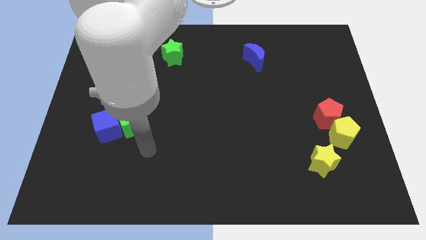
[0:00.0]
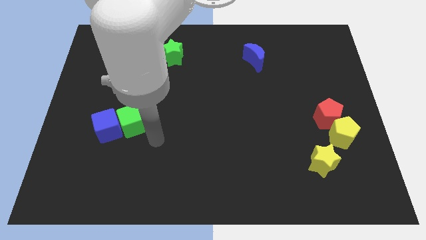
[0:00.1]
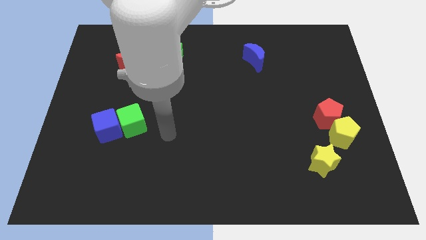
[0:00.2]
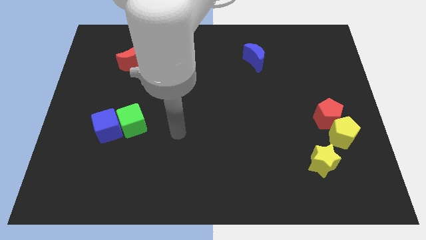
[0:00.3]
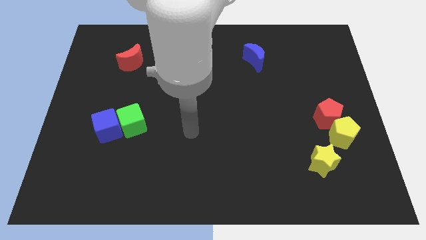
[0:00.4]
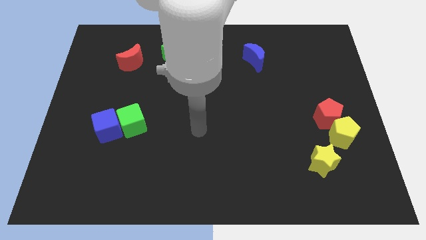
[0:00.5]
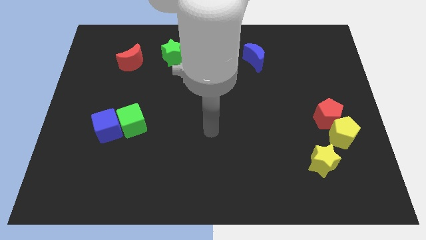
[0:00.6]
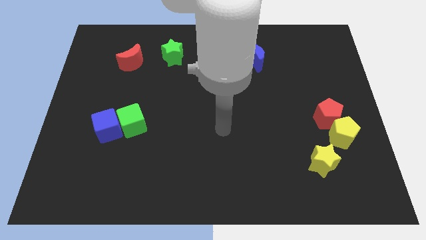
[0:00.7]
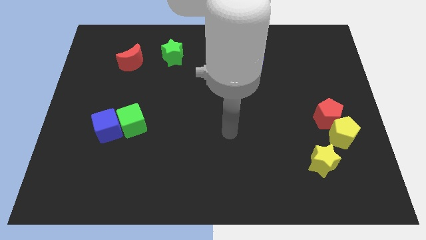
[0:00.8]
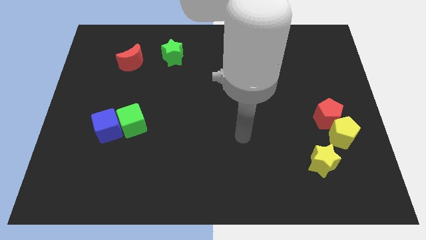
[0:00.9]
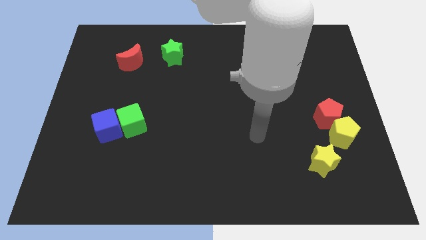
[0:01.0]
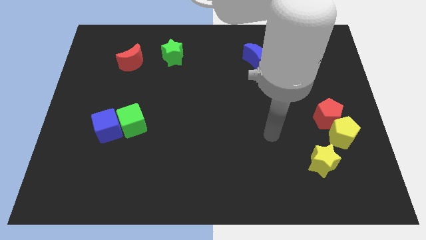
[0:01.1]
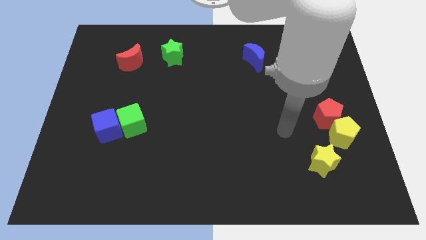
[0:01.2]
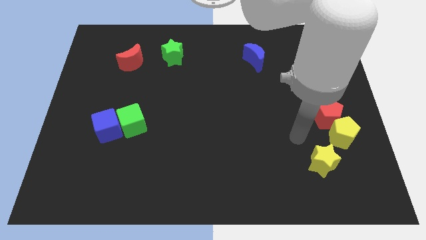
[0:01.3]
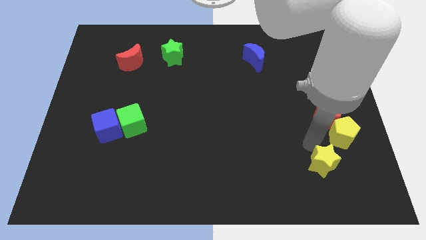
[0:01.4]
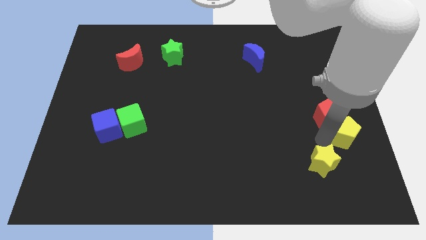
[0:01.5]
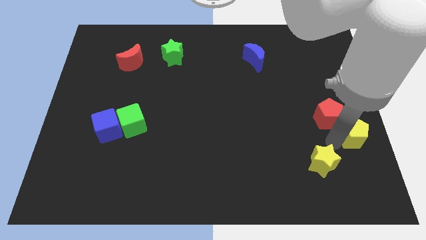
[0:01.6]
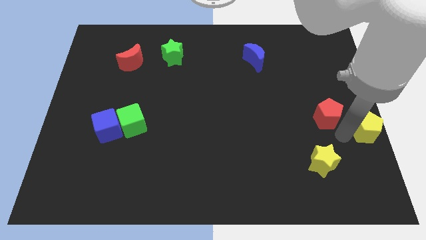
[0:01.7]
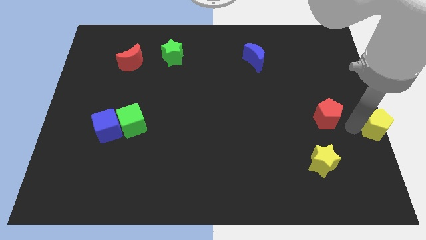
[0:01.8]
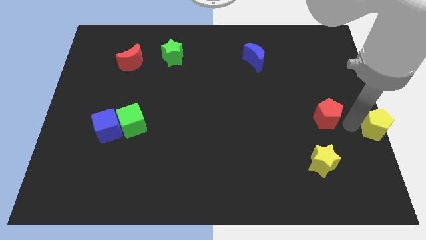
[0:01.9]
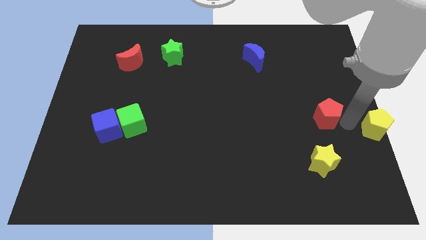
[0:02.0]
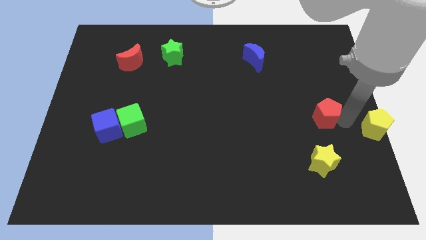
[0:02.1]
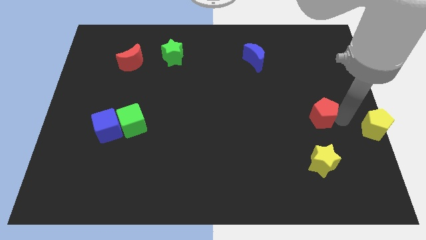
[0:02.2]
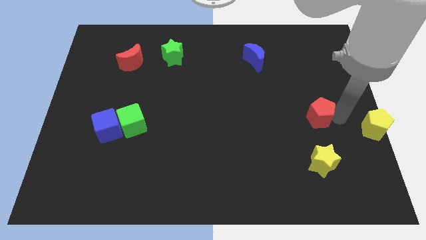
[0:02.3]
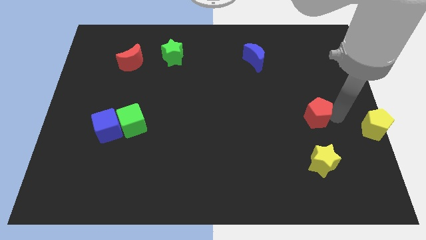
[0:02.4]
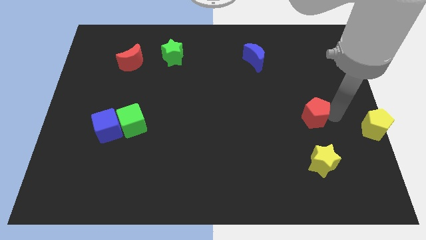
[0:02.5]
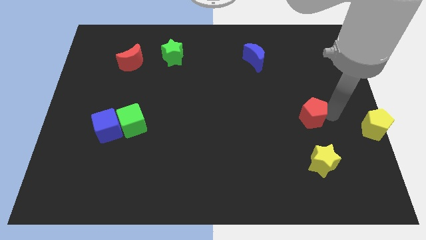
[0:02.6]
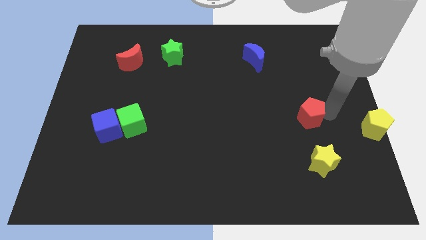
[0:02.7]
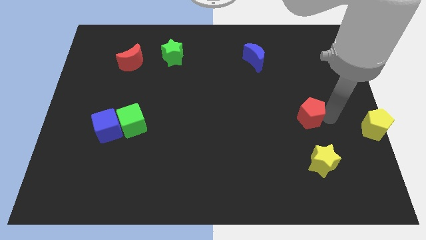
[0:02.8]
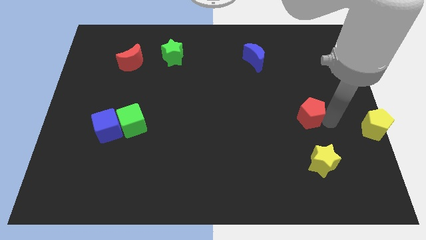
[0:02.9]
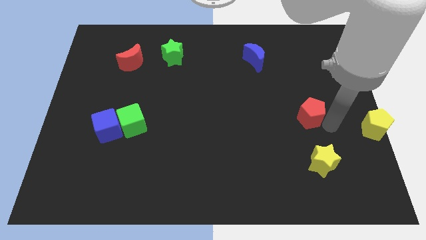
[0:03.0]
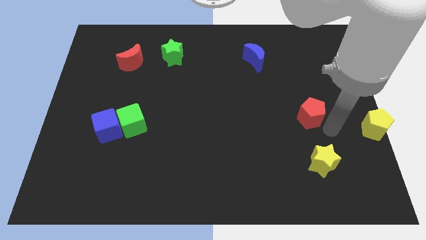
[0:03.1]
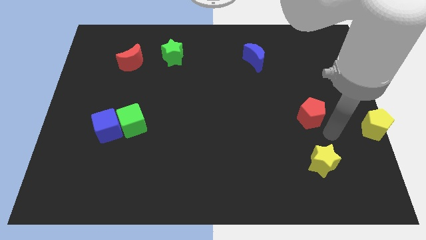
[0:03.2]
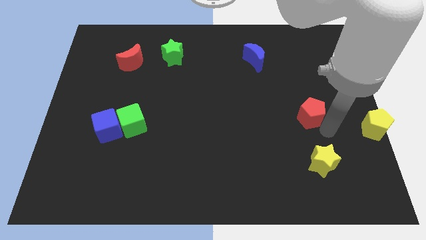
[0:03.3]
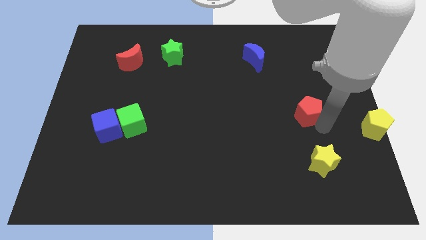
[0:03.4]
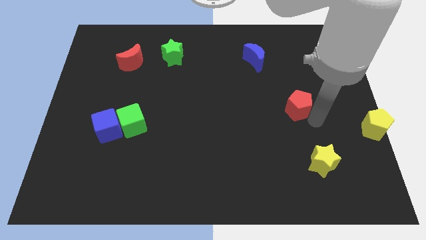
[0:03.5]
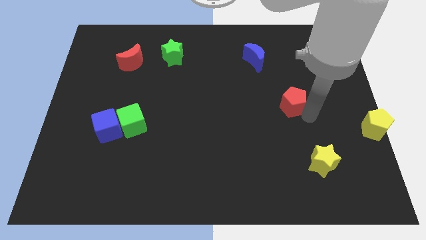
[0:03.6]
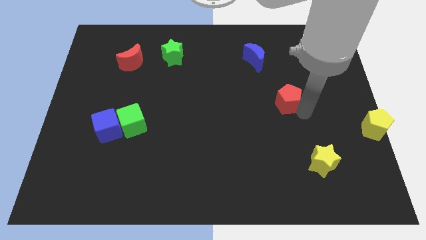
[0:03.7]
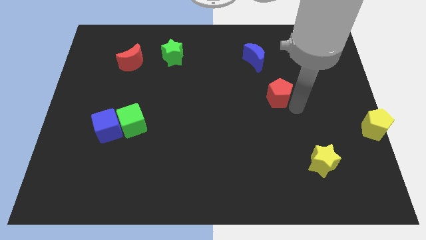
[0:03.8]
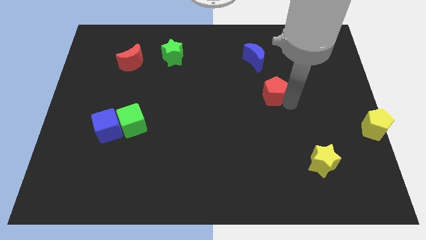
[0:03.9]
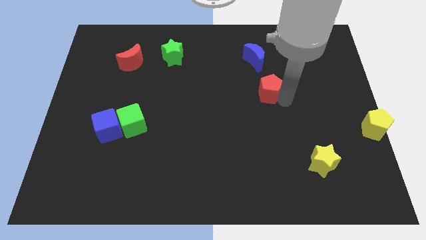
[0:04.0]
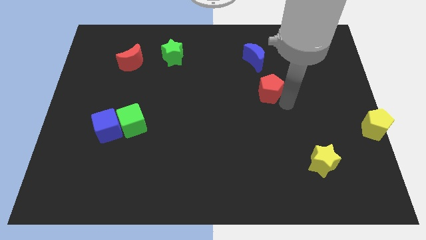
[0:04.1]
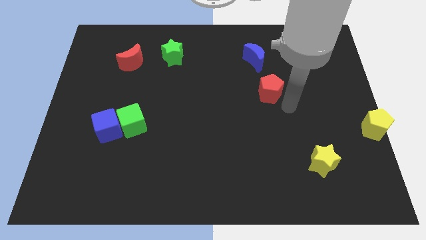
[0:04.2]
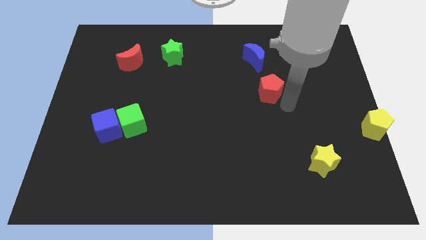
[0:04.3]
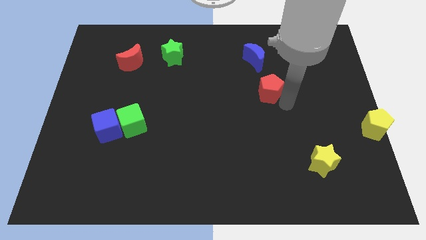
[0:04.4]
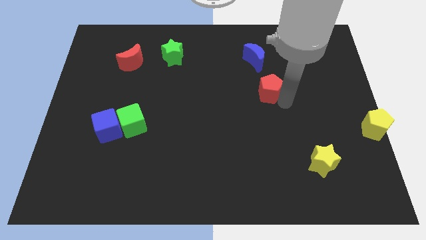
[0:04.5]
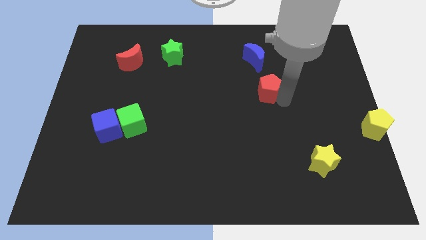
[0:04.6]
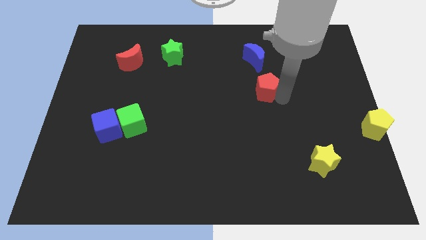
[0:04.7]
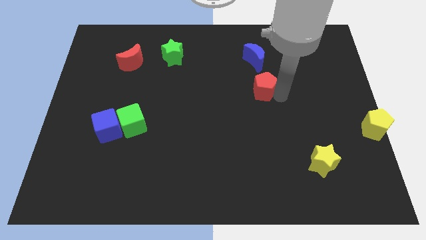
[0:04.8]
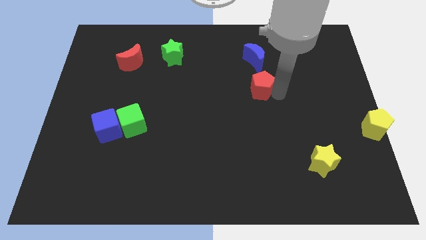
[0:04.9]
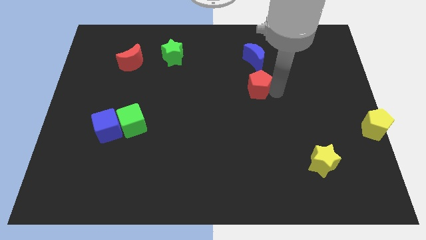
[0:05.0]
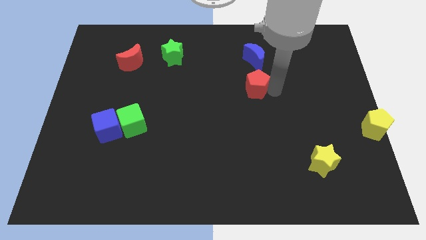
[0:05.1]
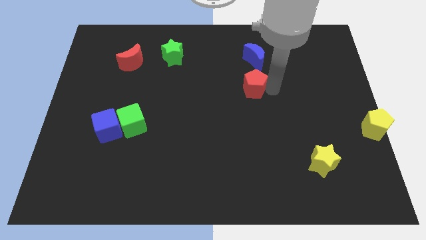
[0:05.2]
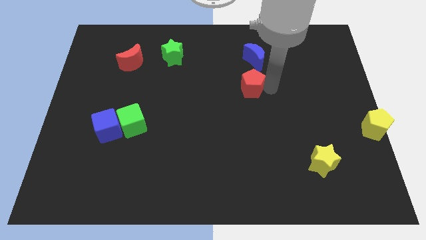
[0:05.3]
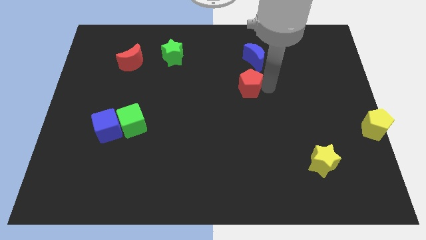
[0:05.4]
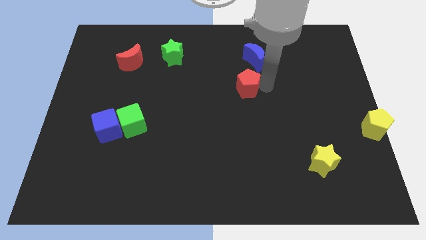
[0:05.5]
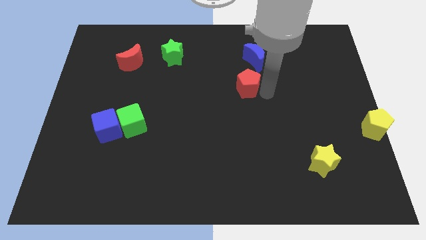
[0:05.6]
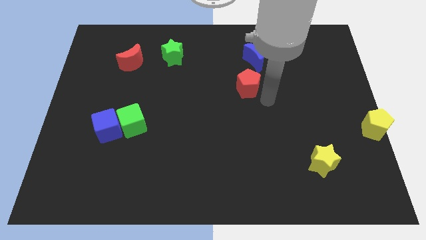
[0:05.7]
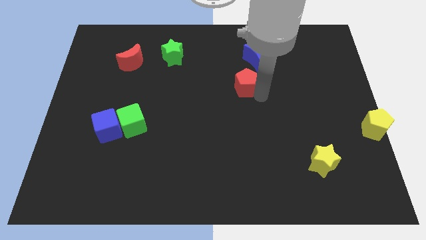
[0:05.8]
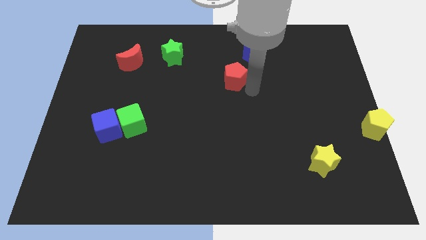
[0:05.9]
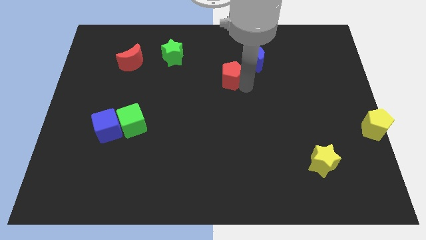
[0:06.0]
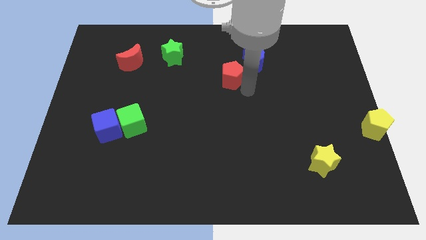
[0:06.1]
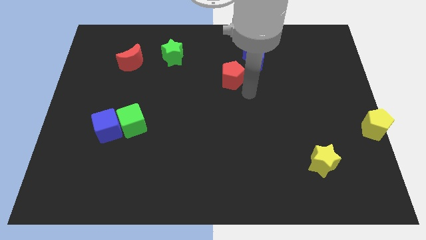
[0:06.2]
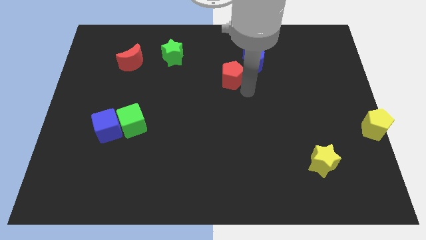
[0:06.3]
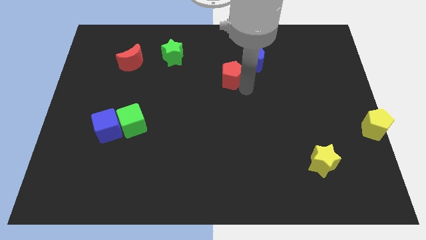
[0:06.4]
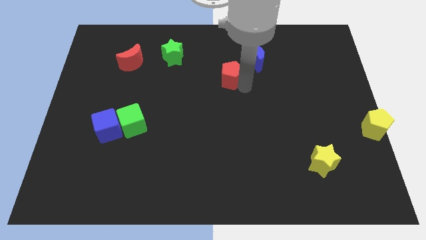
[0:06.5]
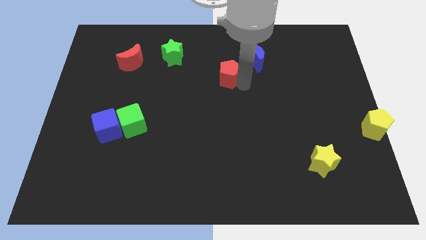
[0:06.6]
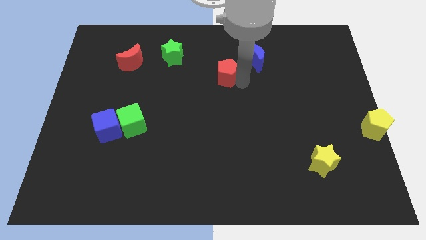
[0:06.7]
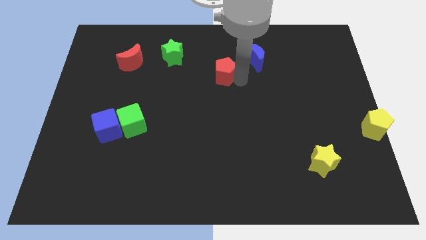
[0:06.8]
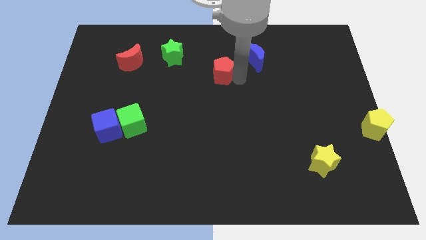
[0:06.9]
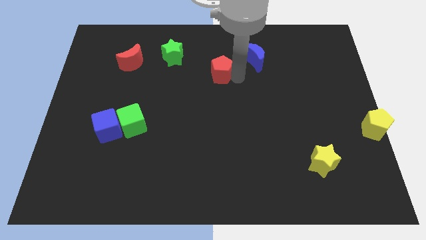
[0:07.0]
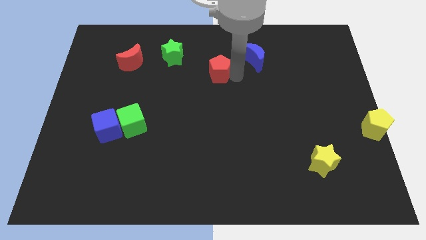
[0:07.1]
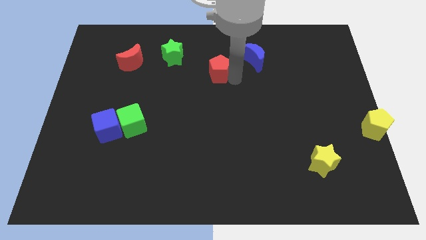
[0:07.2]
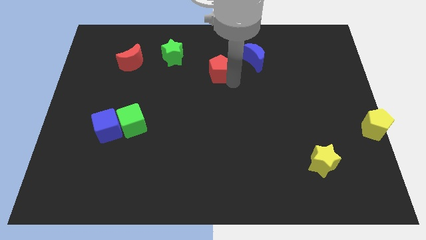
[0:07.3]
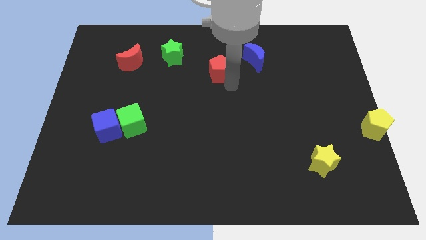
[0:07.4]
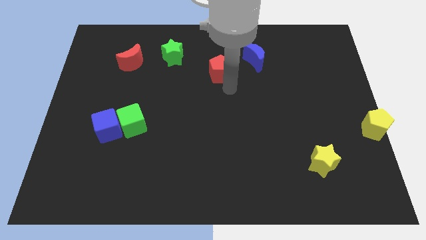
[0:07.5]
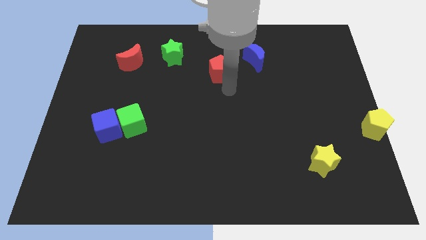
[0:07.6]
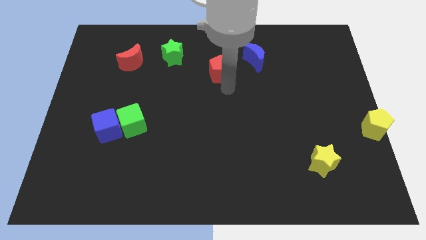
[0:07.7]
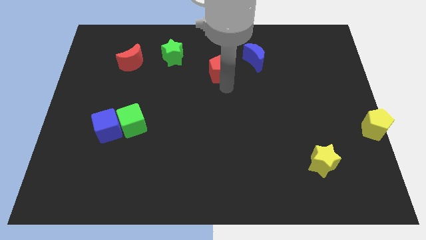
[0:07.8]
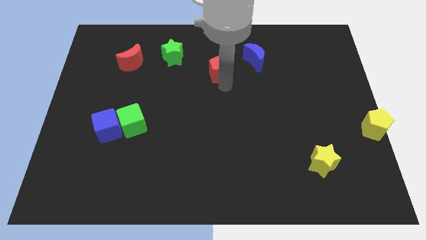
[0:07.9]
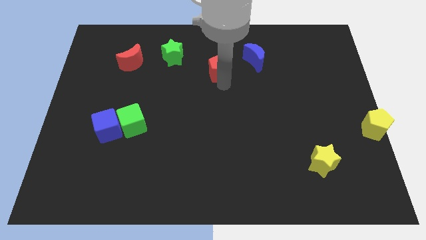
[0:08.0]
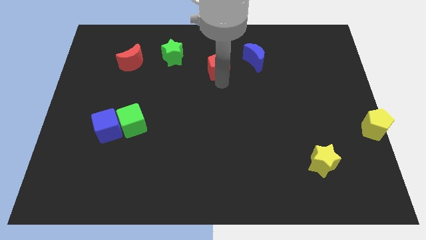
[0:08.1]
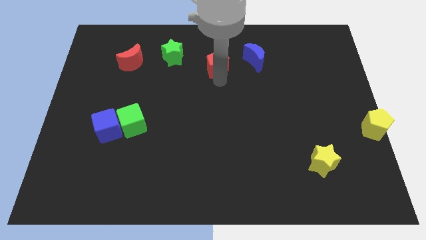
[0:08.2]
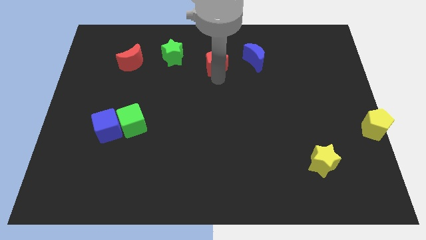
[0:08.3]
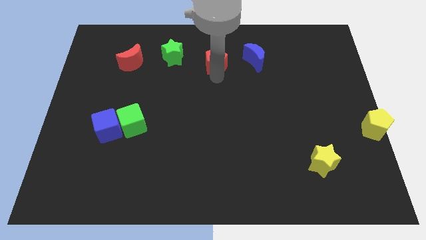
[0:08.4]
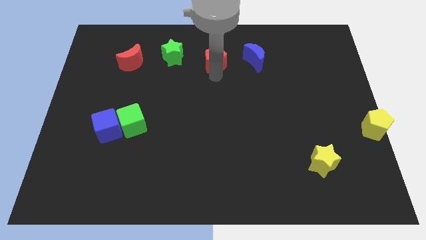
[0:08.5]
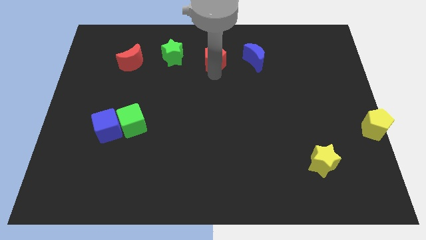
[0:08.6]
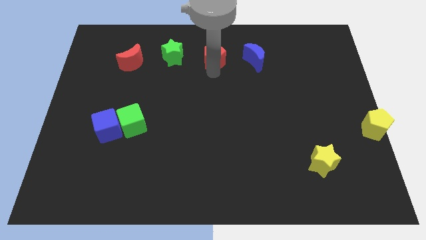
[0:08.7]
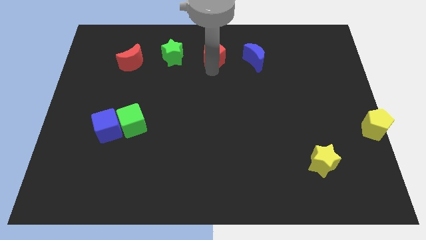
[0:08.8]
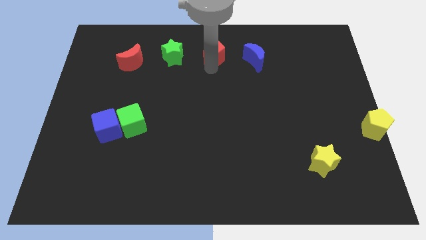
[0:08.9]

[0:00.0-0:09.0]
push the red pentagon to the top side
